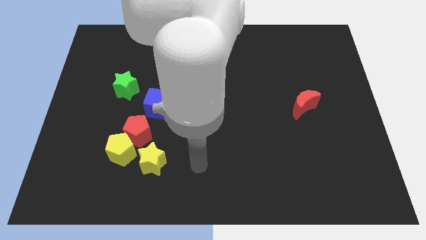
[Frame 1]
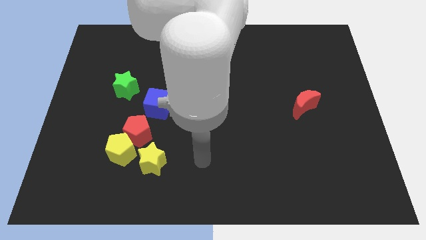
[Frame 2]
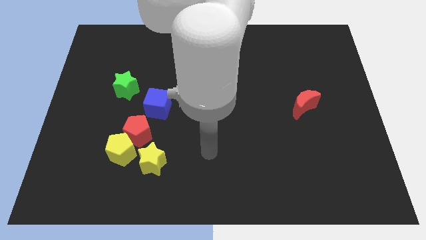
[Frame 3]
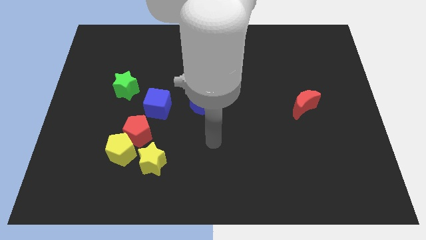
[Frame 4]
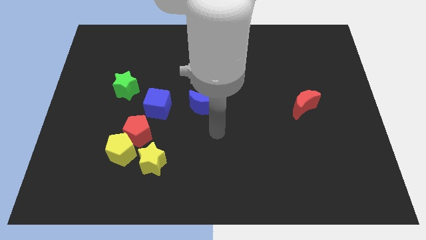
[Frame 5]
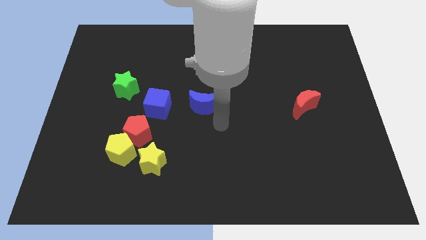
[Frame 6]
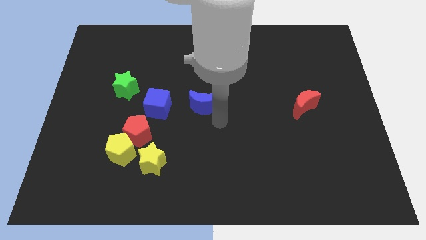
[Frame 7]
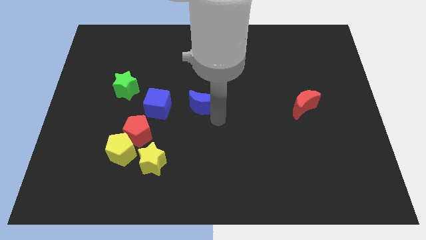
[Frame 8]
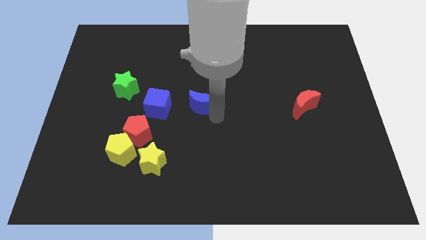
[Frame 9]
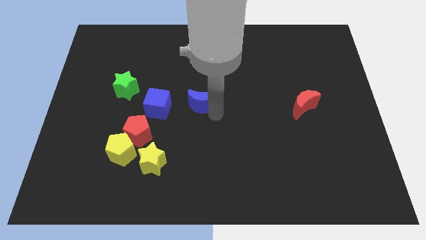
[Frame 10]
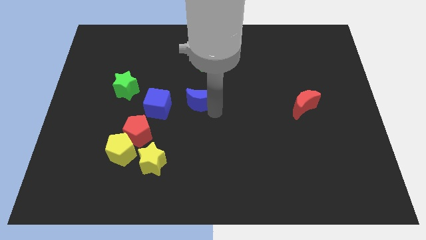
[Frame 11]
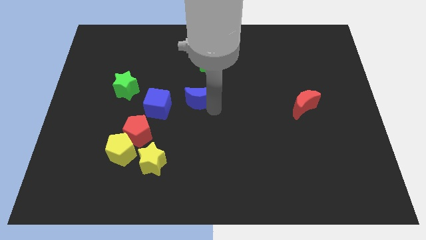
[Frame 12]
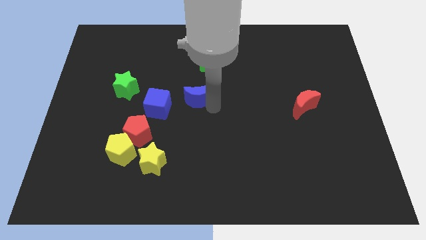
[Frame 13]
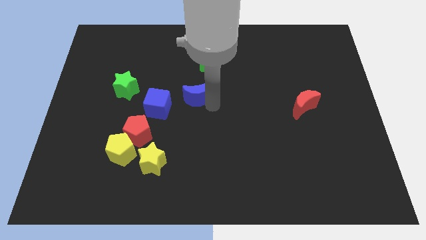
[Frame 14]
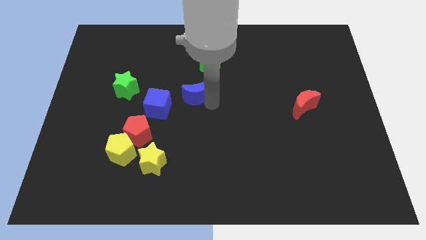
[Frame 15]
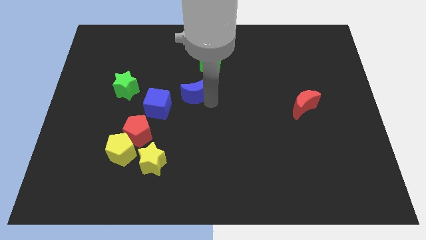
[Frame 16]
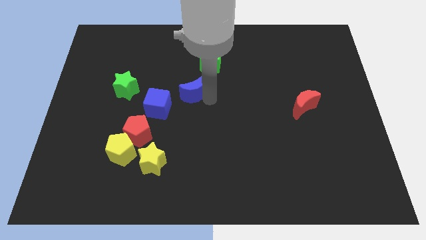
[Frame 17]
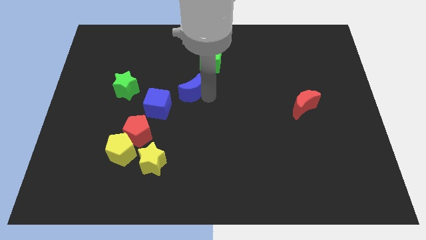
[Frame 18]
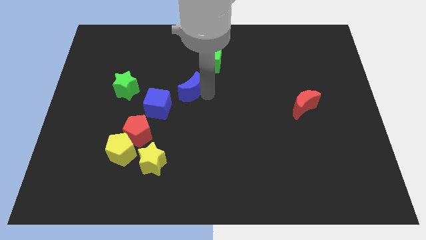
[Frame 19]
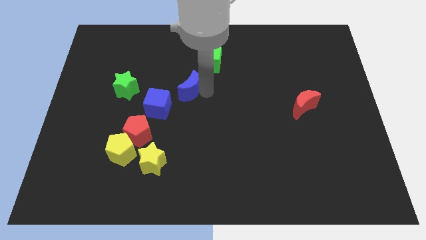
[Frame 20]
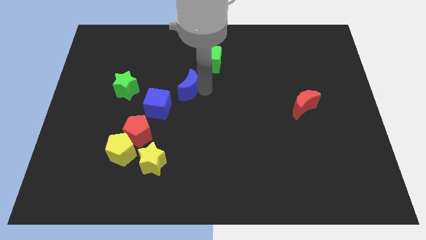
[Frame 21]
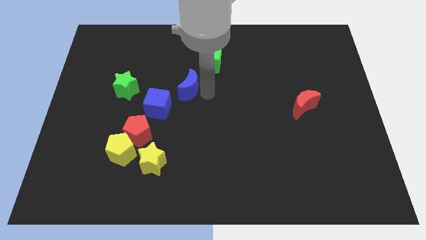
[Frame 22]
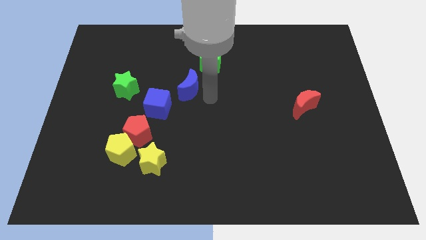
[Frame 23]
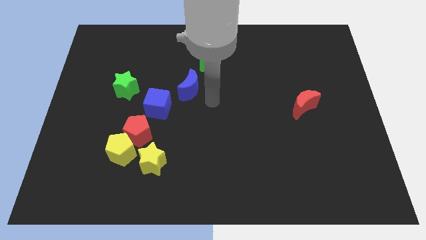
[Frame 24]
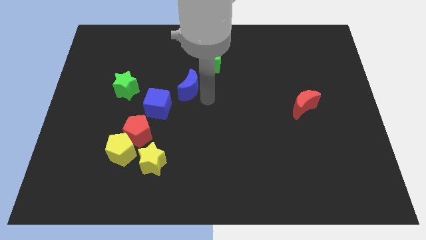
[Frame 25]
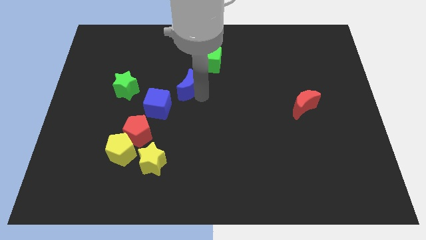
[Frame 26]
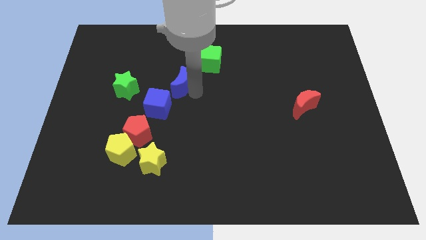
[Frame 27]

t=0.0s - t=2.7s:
slightly push the blue moon up and left

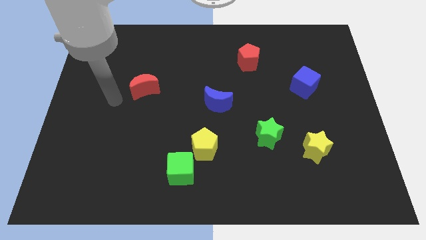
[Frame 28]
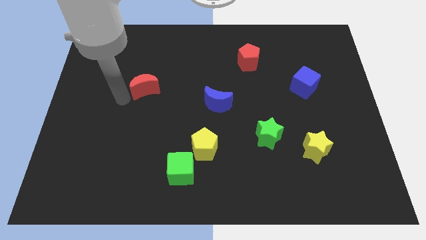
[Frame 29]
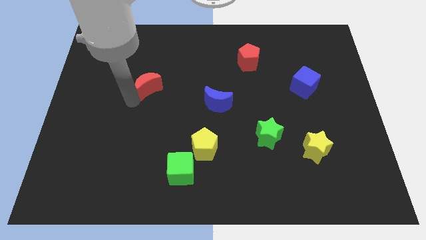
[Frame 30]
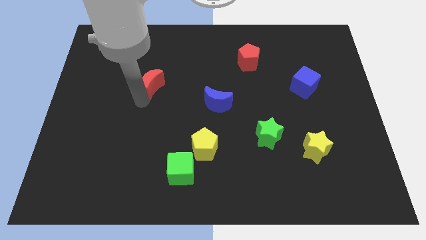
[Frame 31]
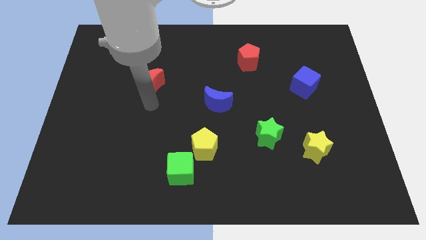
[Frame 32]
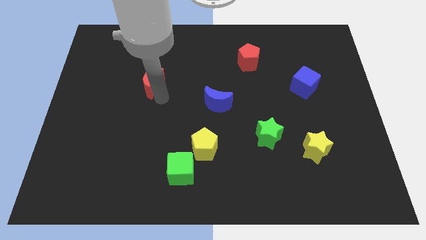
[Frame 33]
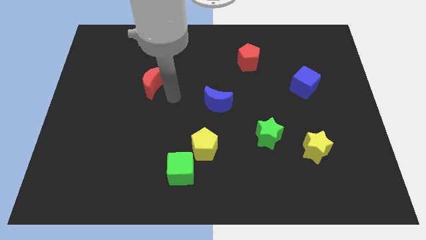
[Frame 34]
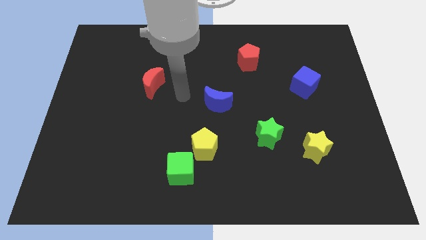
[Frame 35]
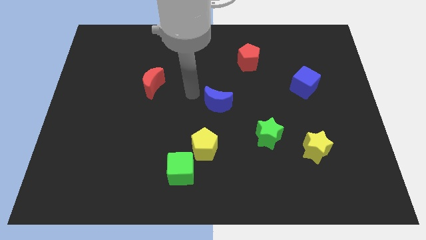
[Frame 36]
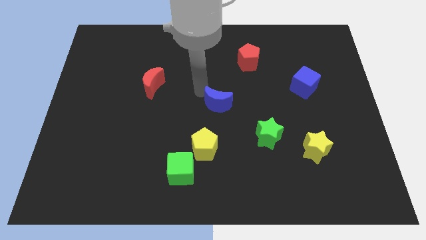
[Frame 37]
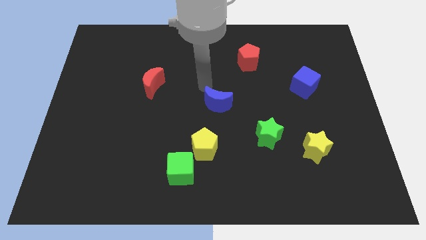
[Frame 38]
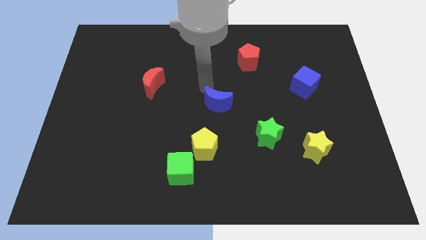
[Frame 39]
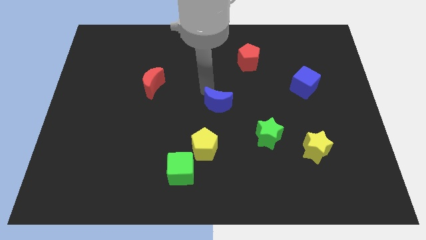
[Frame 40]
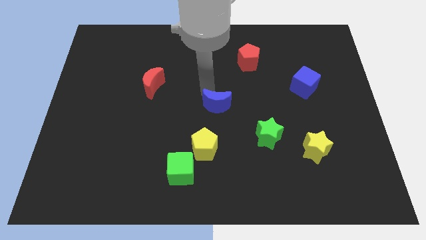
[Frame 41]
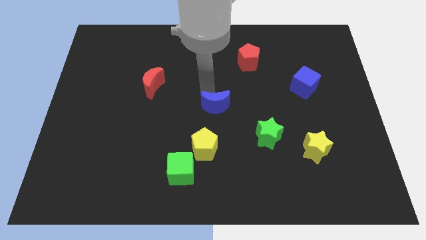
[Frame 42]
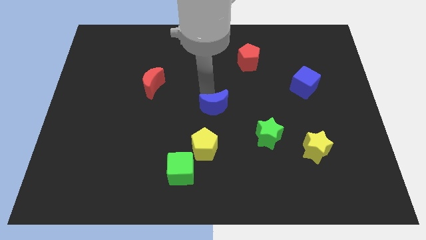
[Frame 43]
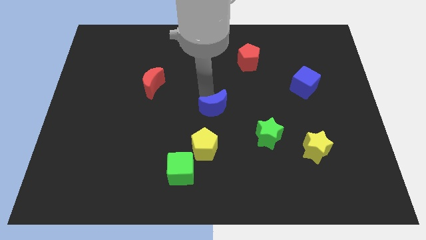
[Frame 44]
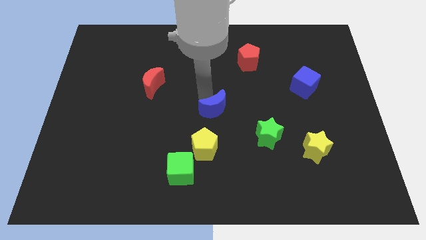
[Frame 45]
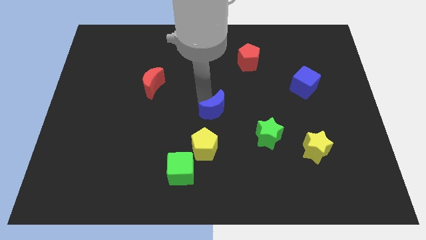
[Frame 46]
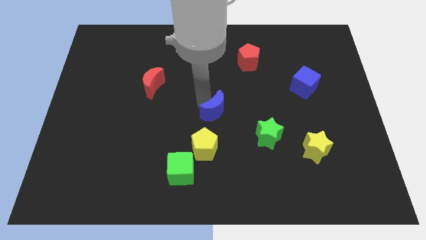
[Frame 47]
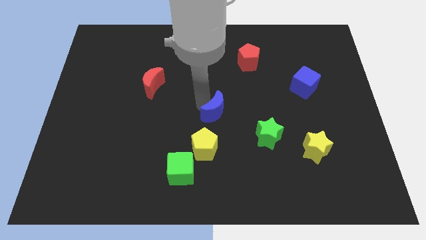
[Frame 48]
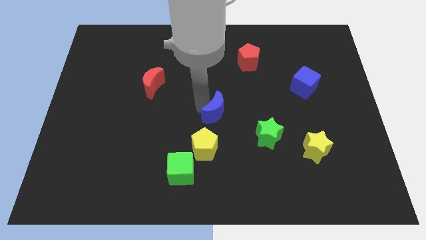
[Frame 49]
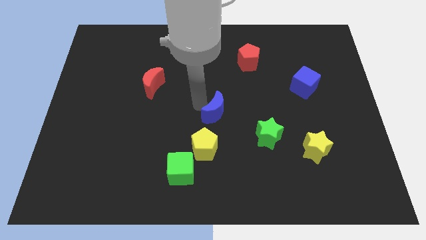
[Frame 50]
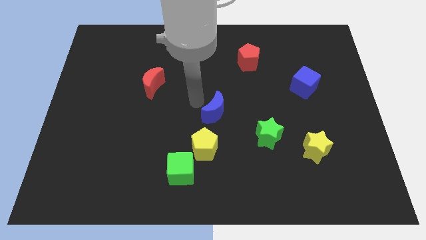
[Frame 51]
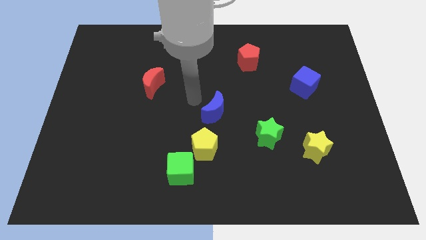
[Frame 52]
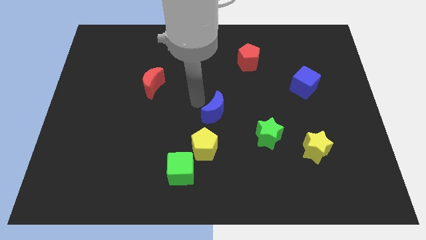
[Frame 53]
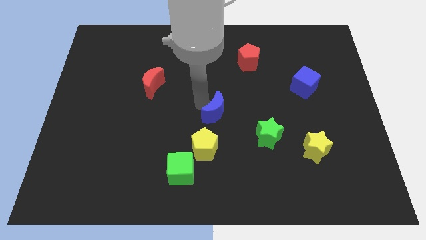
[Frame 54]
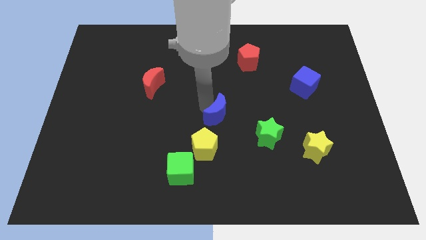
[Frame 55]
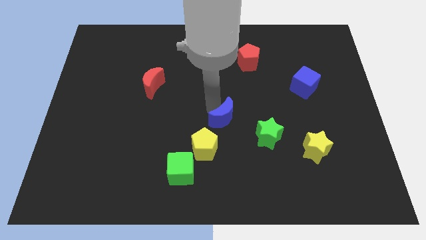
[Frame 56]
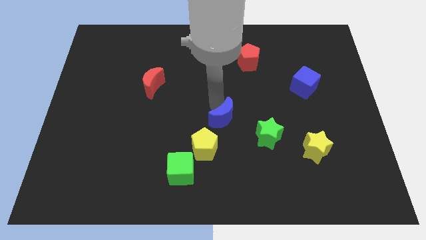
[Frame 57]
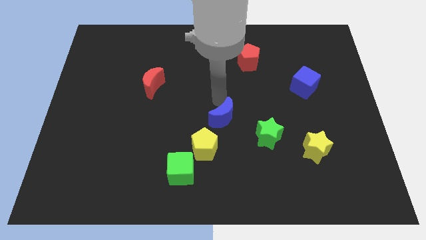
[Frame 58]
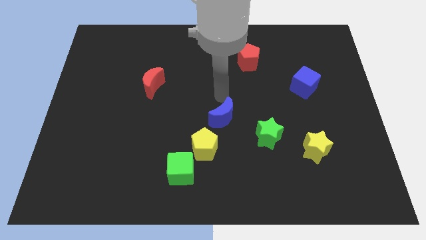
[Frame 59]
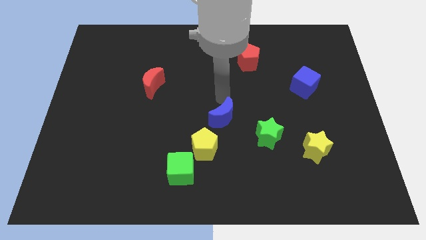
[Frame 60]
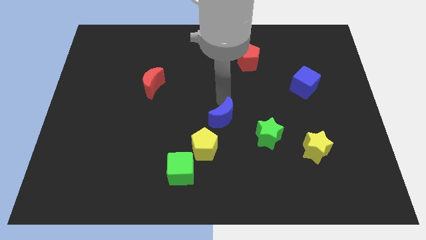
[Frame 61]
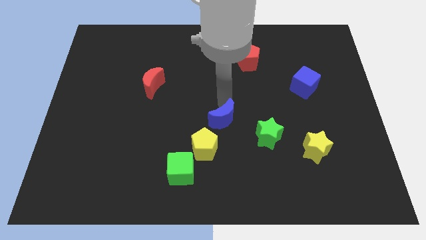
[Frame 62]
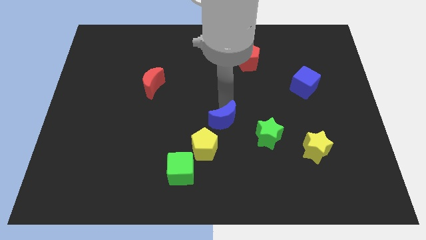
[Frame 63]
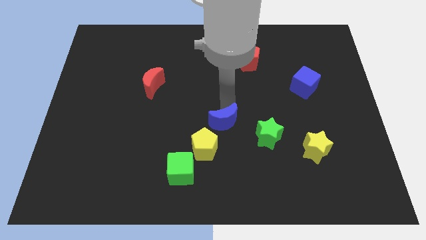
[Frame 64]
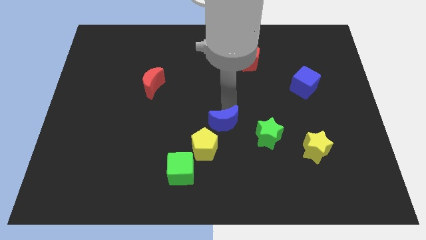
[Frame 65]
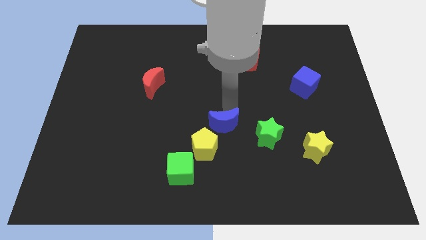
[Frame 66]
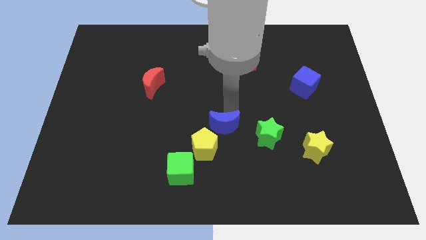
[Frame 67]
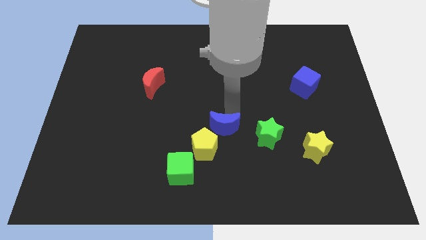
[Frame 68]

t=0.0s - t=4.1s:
slightly slide the blue moon down

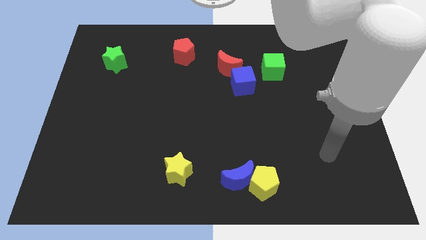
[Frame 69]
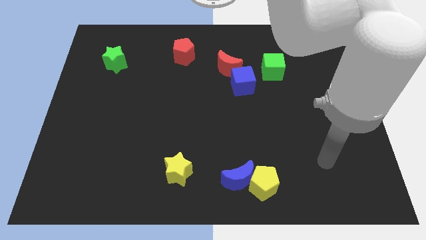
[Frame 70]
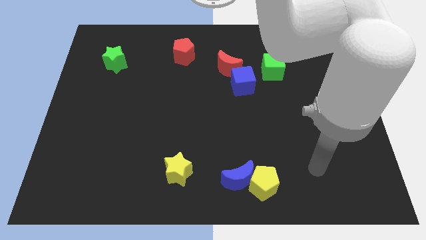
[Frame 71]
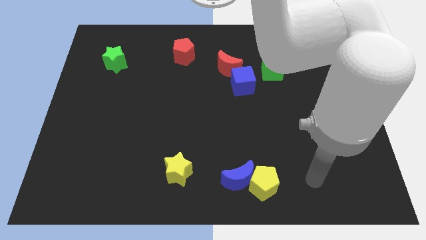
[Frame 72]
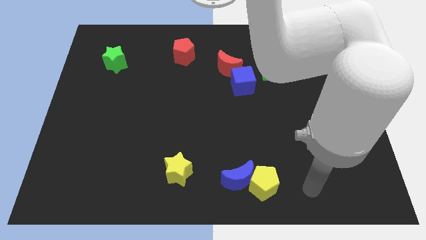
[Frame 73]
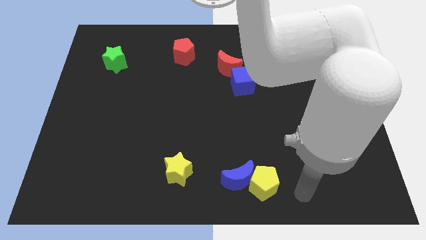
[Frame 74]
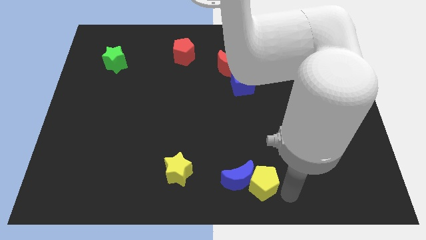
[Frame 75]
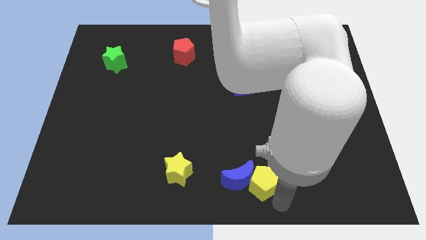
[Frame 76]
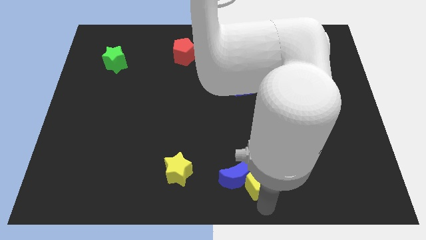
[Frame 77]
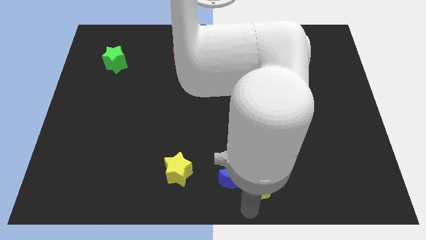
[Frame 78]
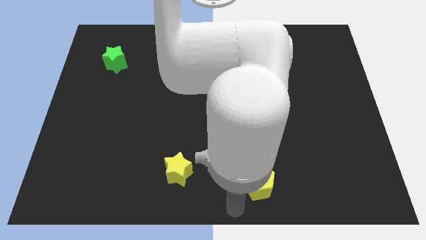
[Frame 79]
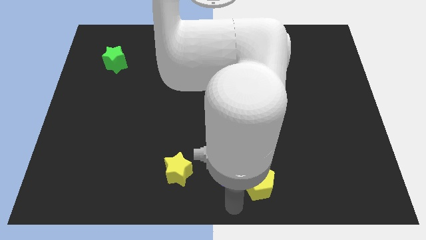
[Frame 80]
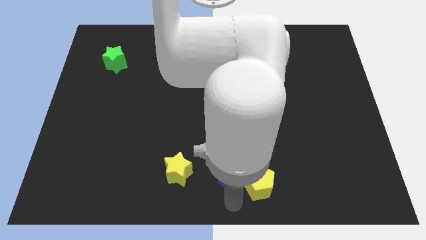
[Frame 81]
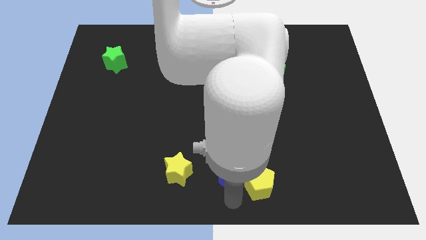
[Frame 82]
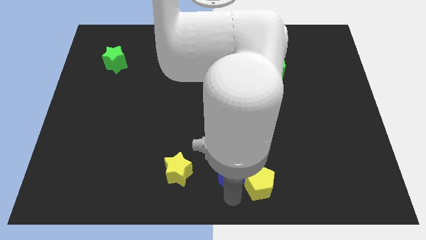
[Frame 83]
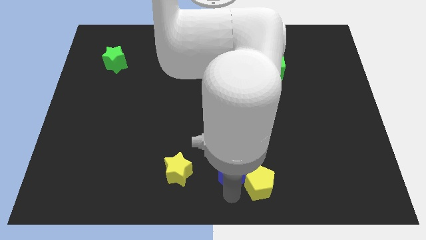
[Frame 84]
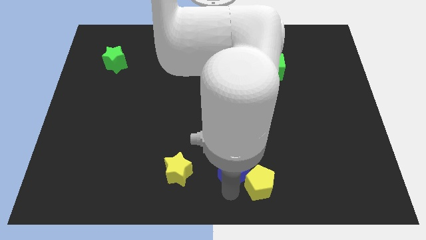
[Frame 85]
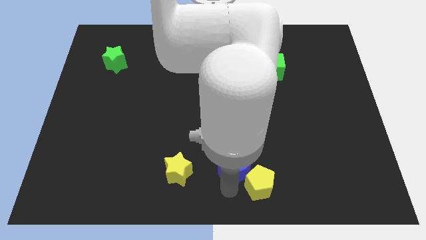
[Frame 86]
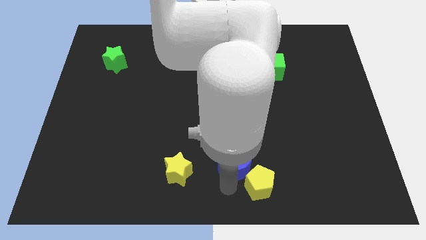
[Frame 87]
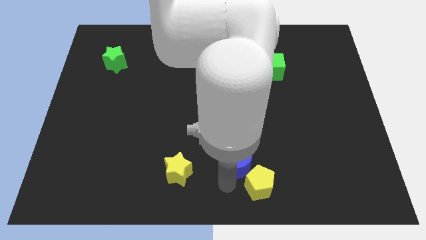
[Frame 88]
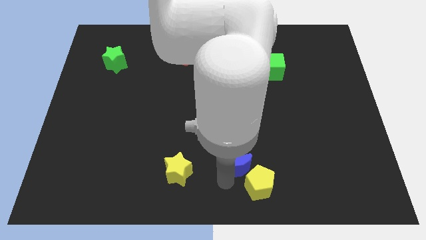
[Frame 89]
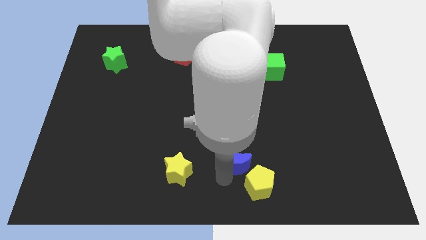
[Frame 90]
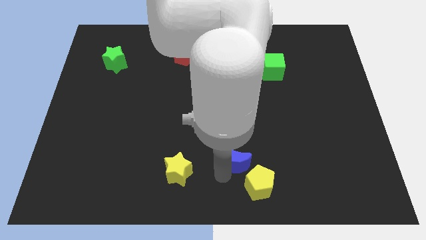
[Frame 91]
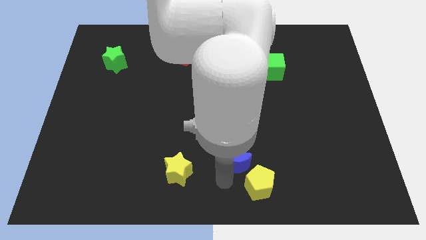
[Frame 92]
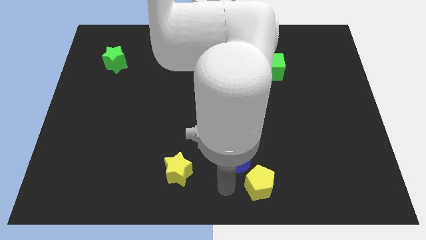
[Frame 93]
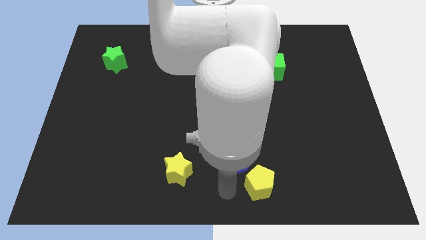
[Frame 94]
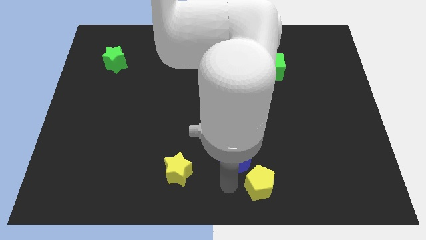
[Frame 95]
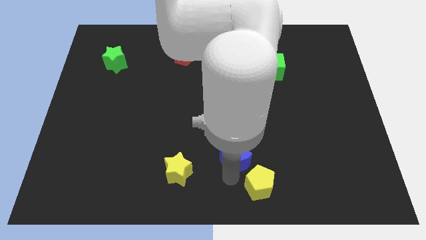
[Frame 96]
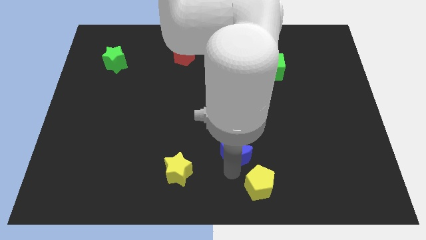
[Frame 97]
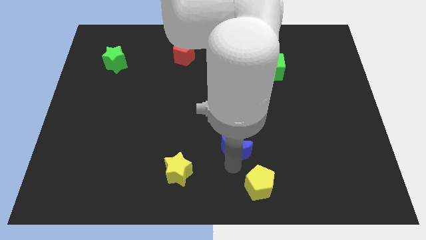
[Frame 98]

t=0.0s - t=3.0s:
push the blue moon a little bit upwards
